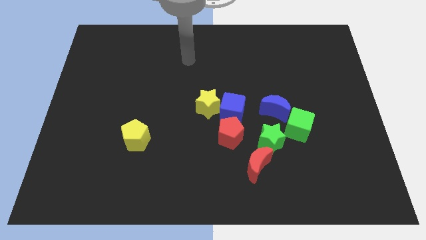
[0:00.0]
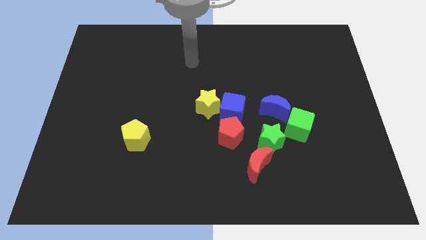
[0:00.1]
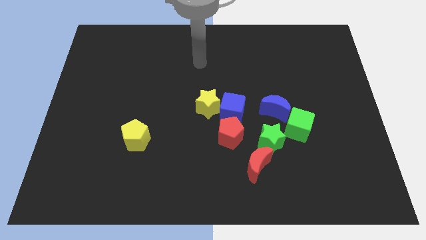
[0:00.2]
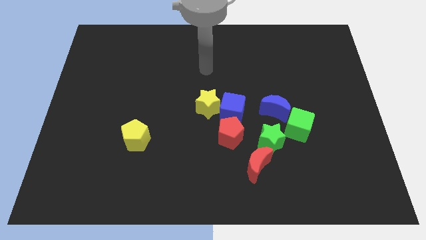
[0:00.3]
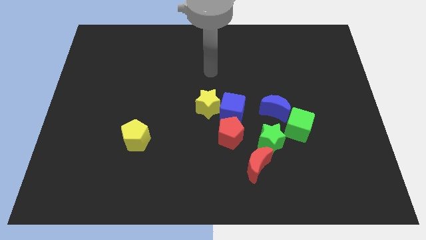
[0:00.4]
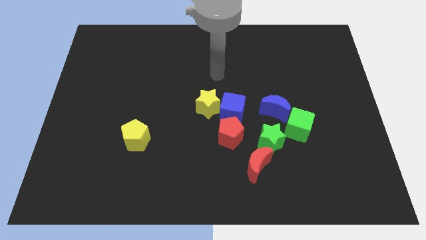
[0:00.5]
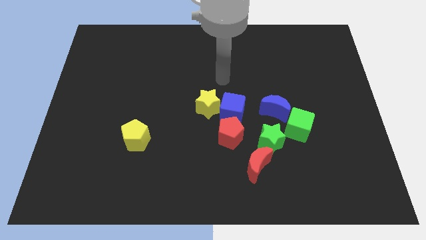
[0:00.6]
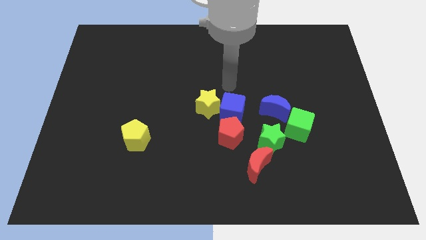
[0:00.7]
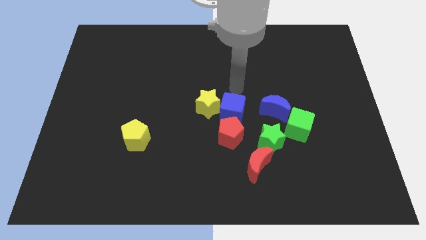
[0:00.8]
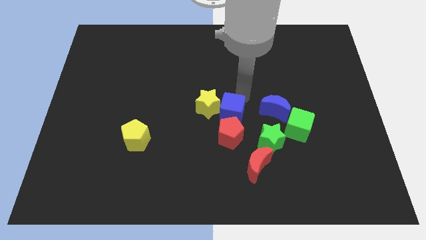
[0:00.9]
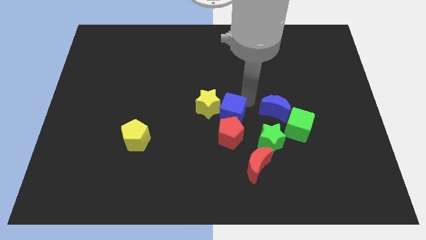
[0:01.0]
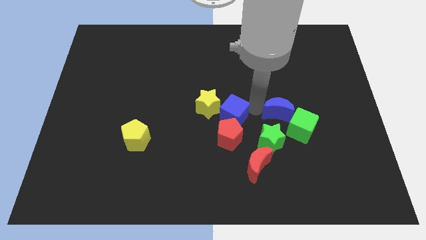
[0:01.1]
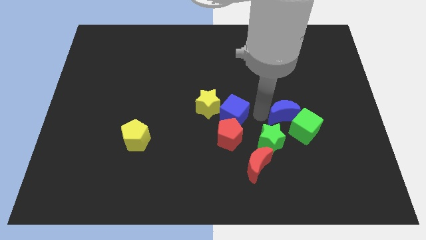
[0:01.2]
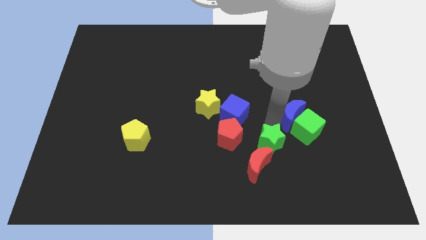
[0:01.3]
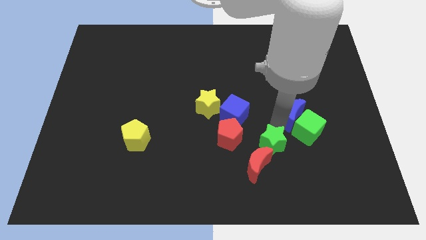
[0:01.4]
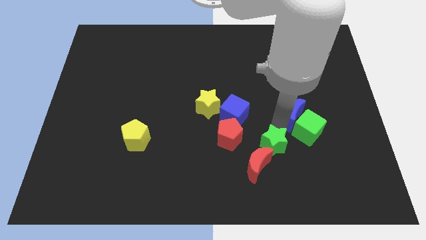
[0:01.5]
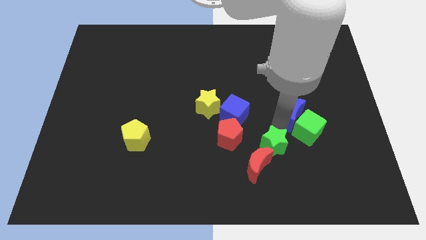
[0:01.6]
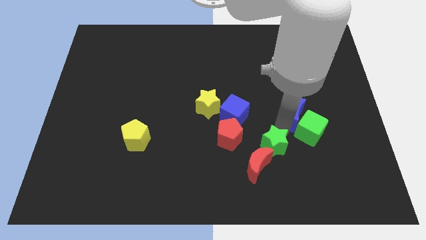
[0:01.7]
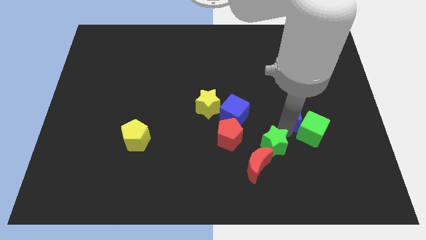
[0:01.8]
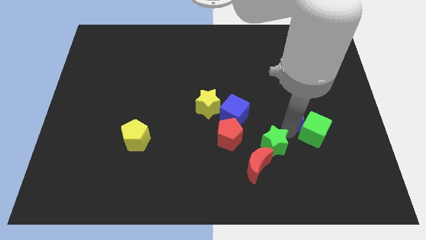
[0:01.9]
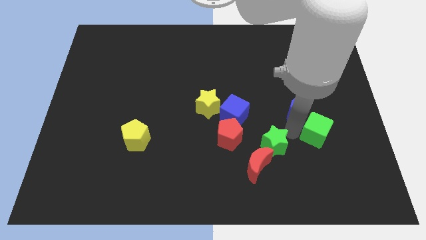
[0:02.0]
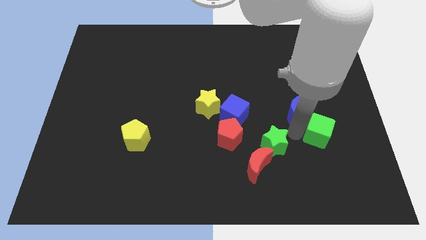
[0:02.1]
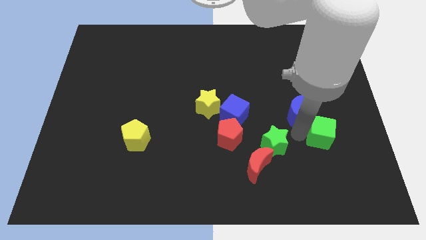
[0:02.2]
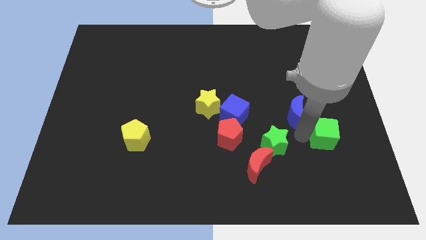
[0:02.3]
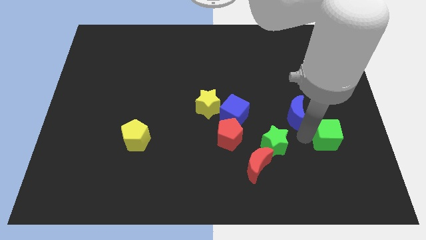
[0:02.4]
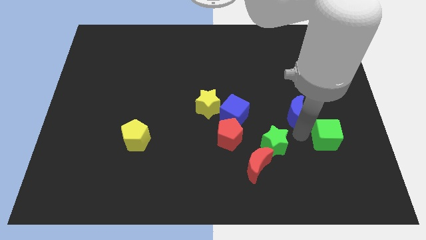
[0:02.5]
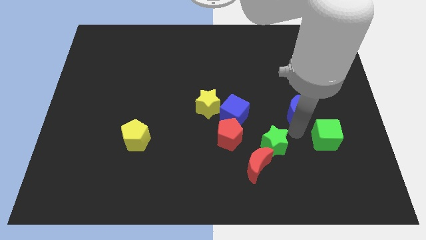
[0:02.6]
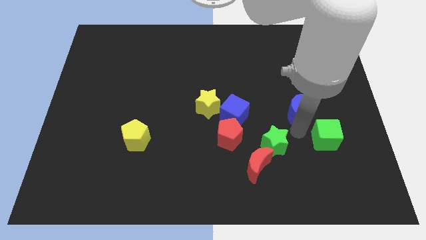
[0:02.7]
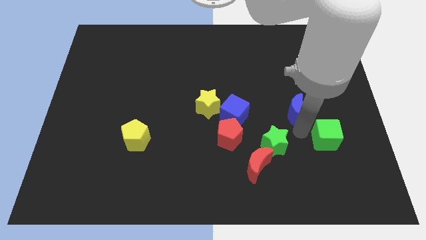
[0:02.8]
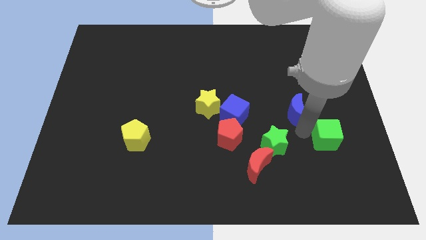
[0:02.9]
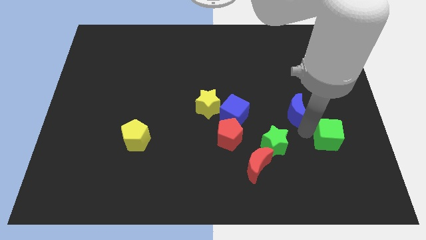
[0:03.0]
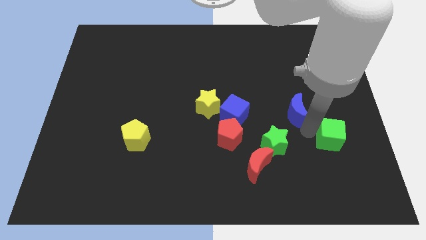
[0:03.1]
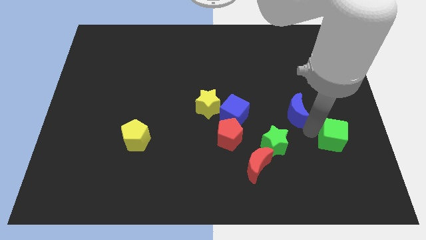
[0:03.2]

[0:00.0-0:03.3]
move the green cube away from the blue moon and green star

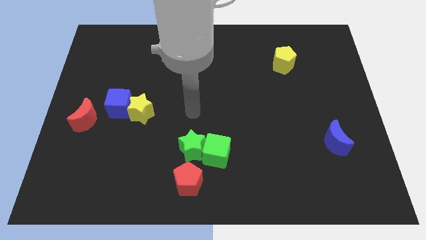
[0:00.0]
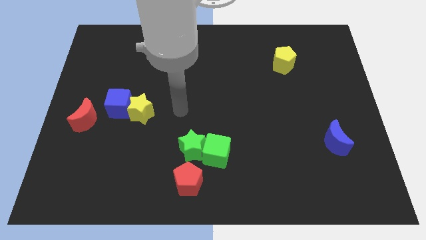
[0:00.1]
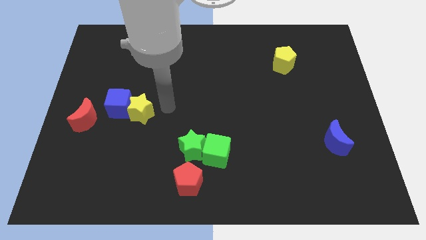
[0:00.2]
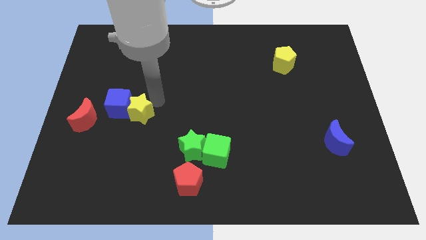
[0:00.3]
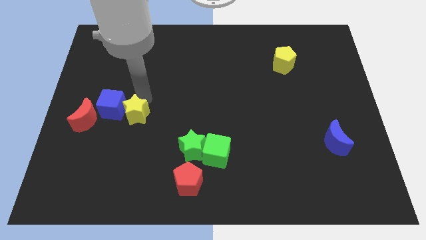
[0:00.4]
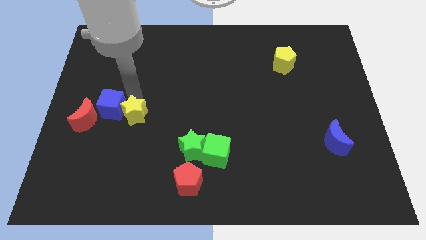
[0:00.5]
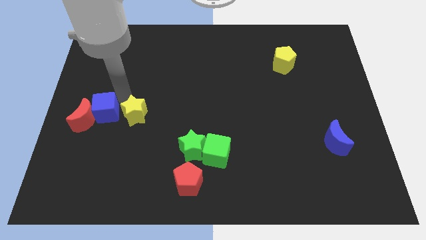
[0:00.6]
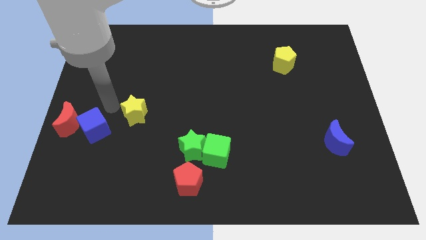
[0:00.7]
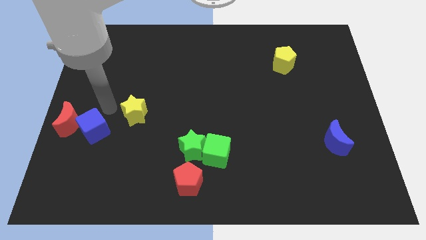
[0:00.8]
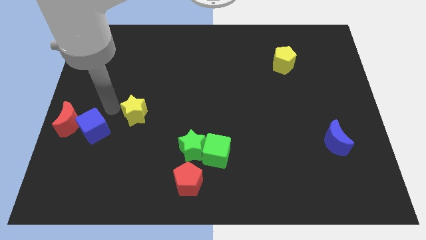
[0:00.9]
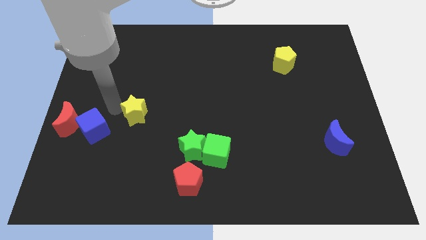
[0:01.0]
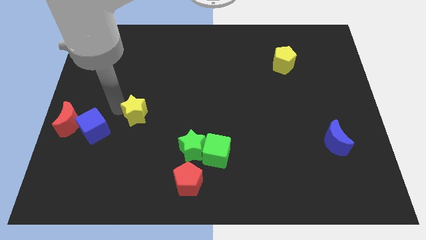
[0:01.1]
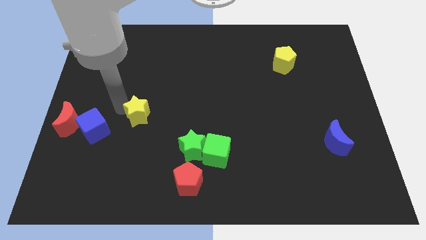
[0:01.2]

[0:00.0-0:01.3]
pull the yellow star apart from the blue cube

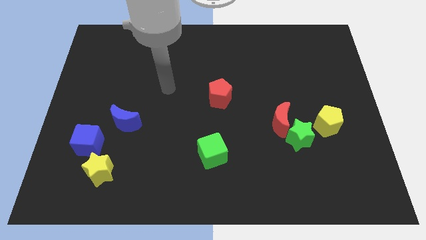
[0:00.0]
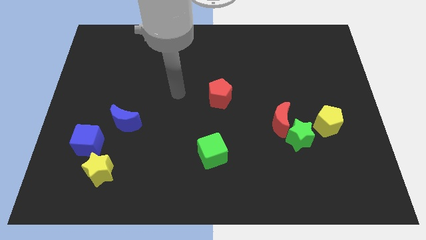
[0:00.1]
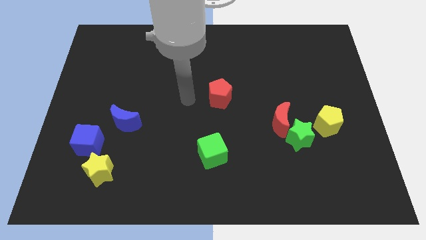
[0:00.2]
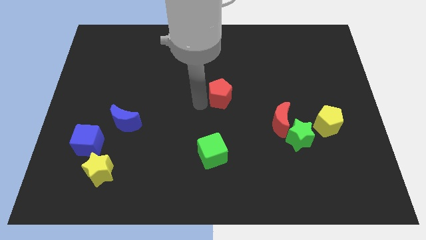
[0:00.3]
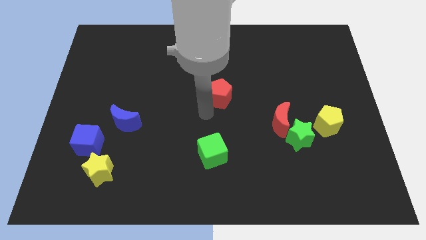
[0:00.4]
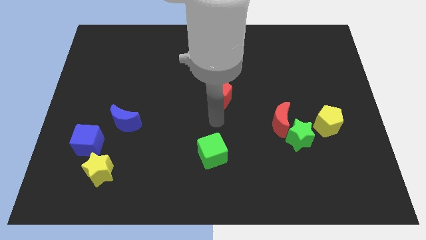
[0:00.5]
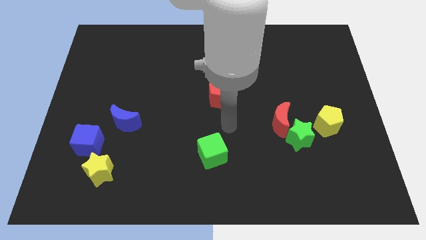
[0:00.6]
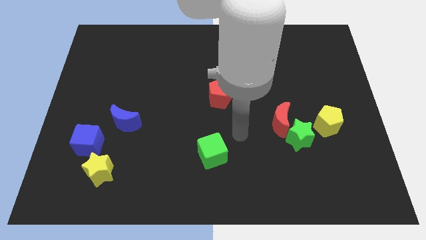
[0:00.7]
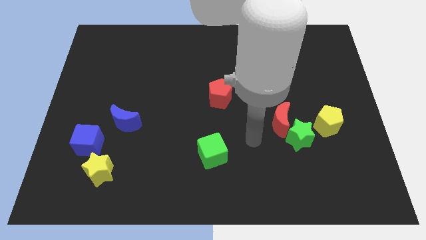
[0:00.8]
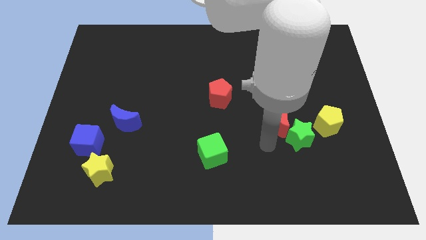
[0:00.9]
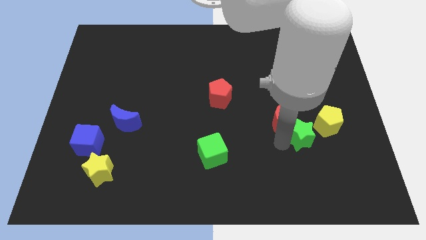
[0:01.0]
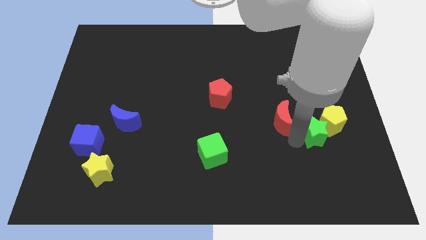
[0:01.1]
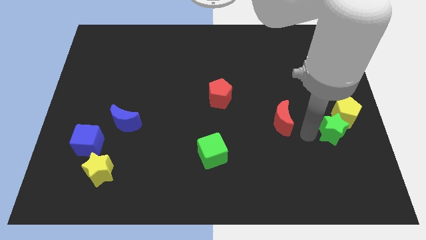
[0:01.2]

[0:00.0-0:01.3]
move the red moon away from the green star

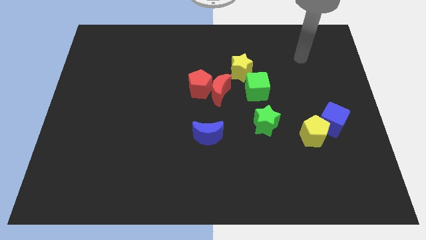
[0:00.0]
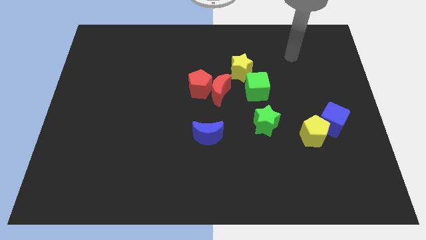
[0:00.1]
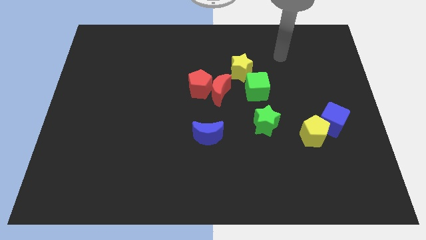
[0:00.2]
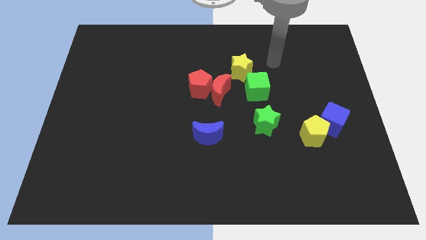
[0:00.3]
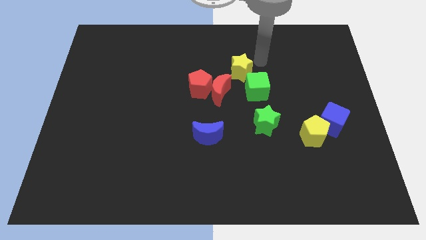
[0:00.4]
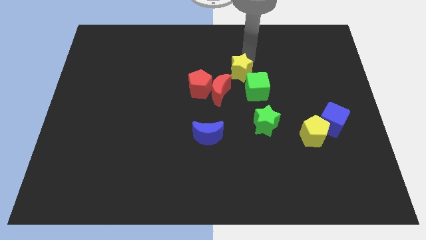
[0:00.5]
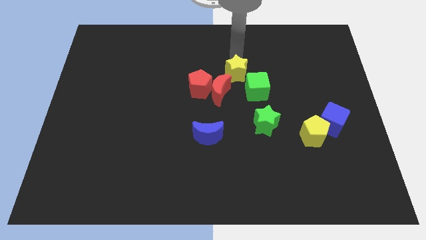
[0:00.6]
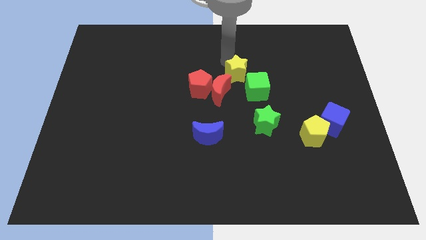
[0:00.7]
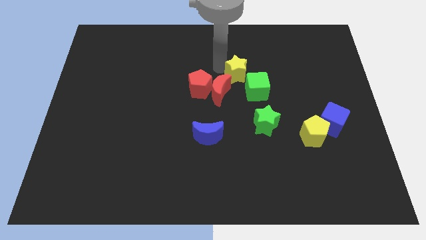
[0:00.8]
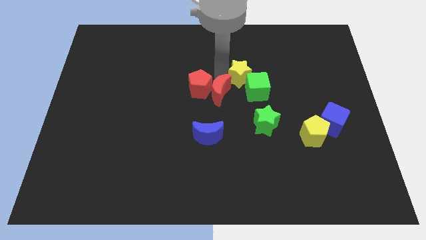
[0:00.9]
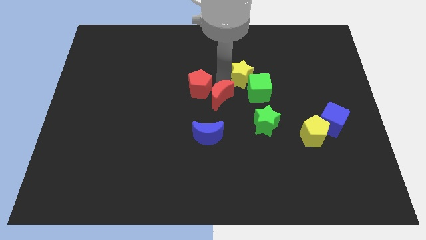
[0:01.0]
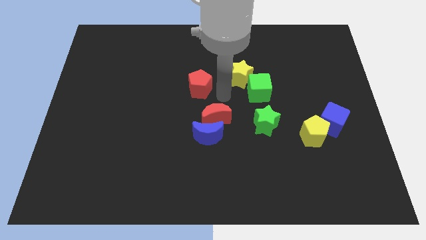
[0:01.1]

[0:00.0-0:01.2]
separate the red pentagon from the red moon

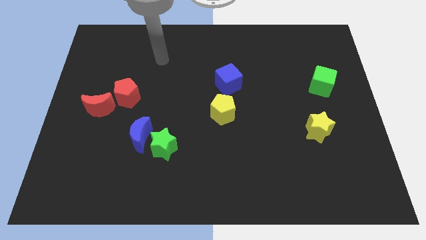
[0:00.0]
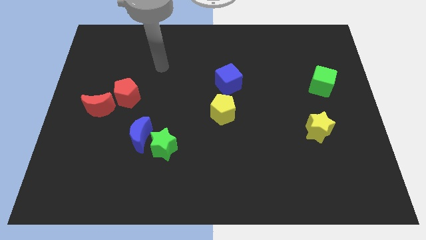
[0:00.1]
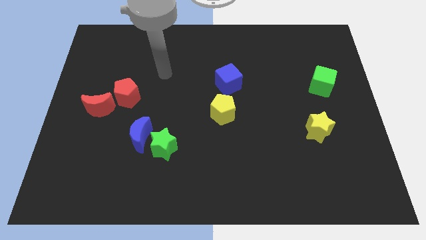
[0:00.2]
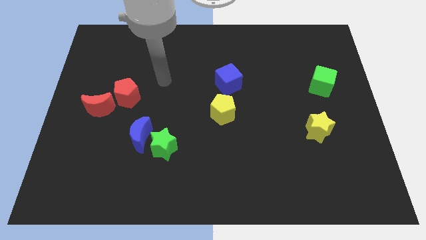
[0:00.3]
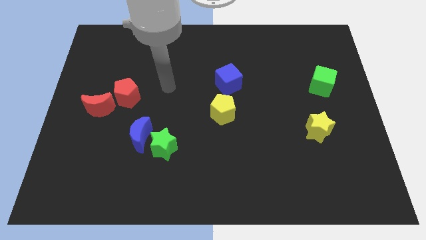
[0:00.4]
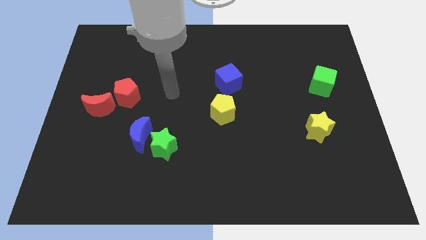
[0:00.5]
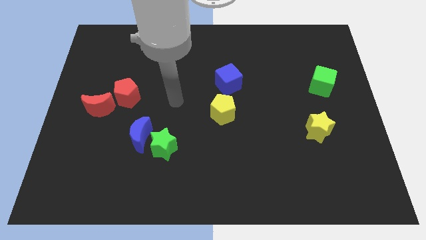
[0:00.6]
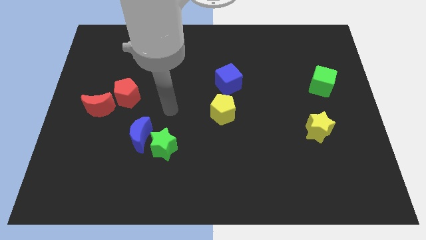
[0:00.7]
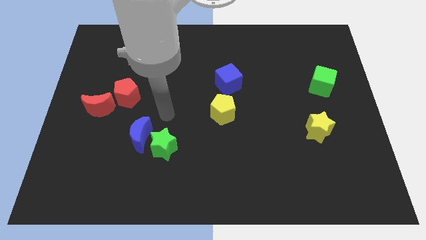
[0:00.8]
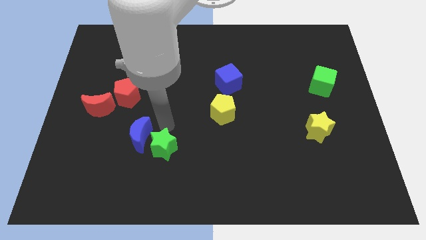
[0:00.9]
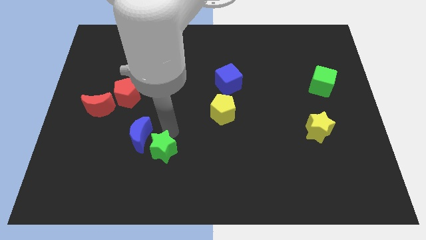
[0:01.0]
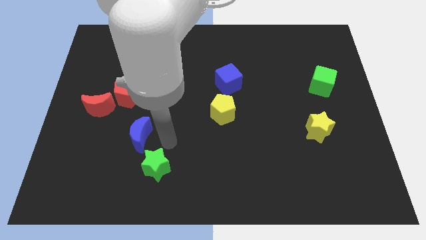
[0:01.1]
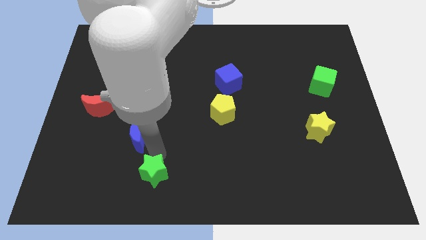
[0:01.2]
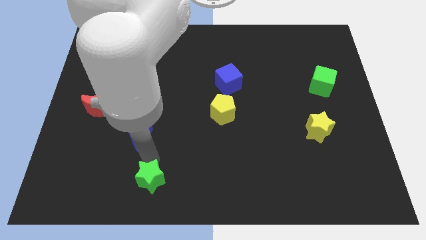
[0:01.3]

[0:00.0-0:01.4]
pull the blue moon apart from the green star

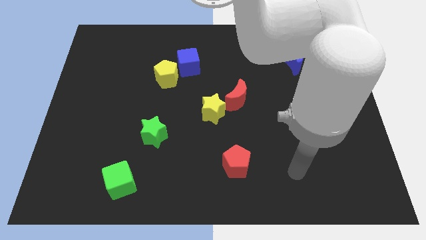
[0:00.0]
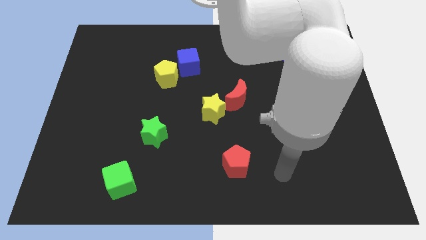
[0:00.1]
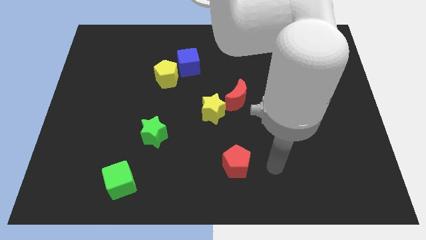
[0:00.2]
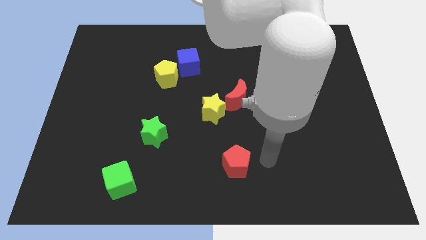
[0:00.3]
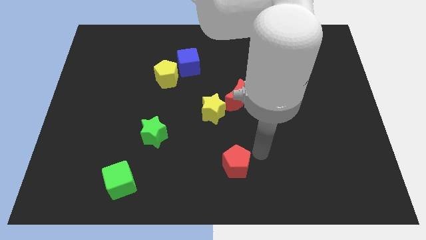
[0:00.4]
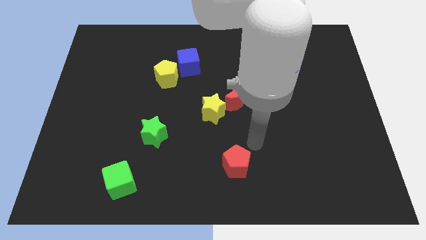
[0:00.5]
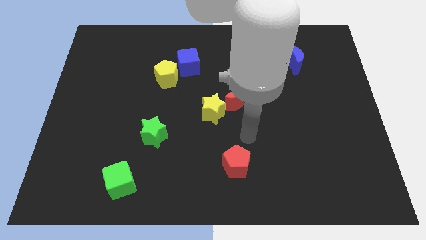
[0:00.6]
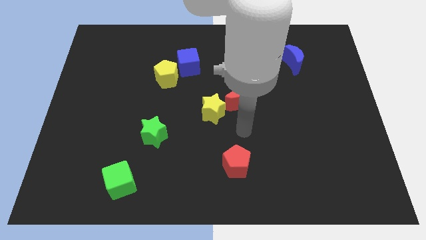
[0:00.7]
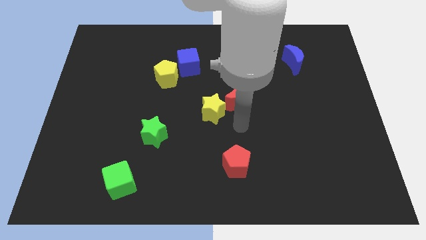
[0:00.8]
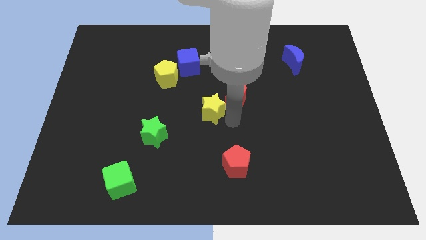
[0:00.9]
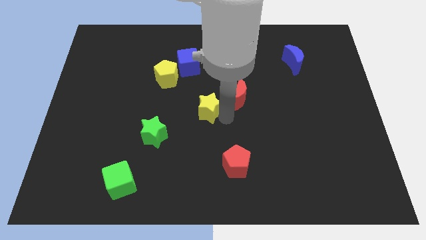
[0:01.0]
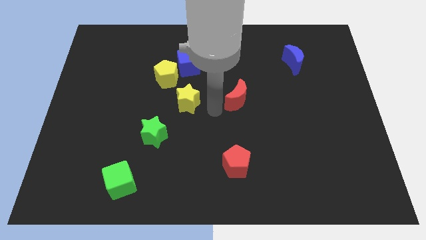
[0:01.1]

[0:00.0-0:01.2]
pull the red moon apart from the yellow star
